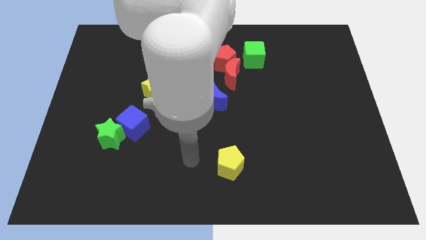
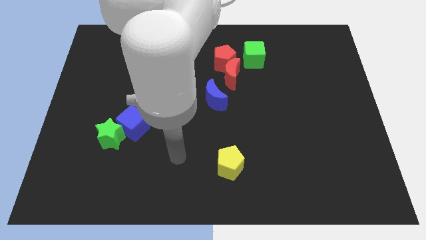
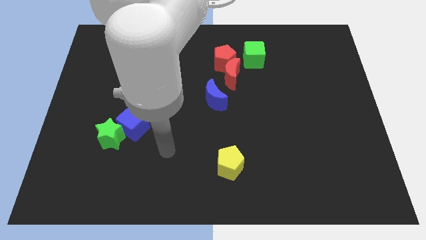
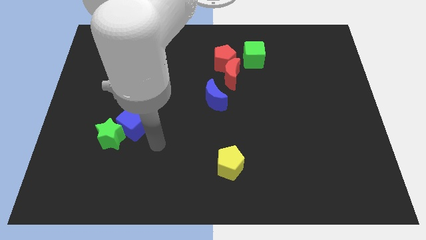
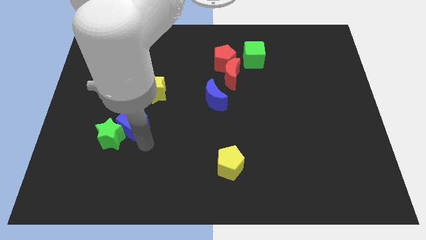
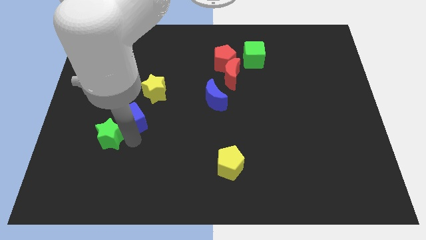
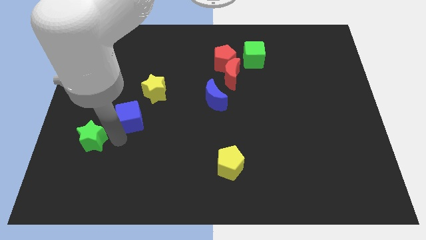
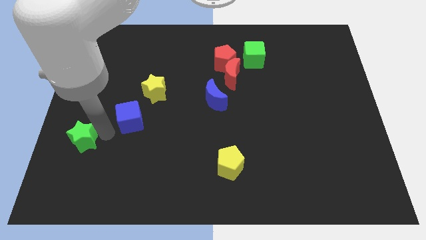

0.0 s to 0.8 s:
pull the blue cube apart from the green star

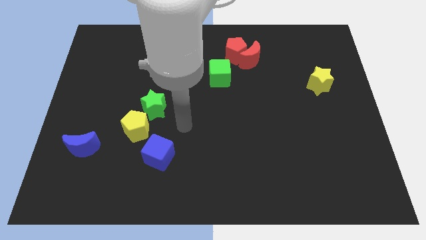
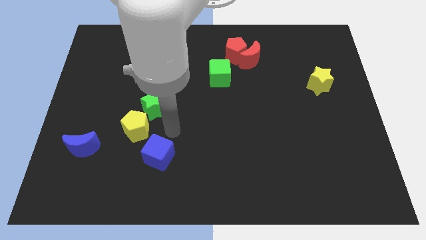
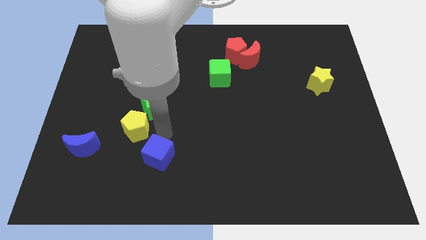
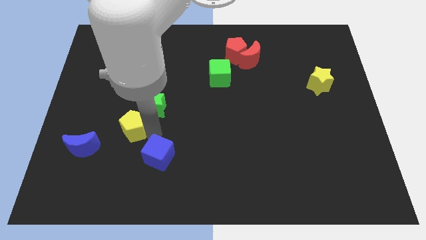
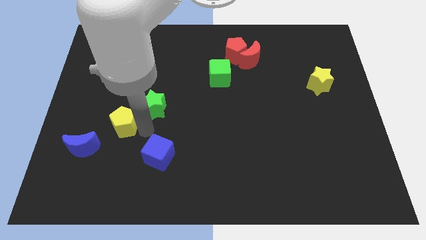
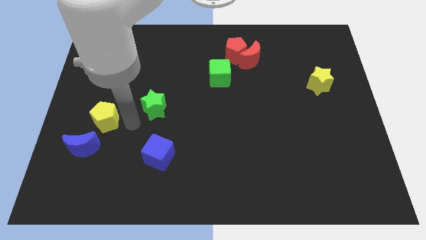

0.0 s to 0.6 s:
move the green star away from the yellow pentagon

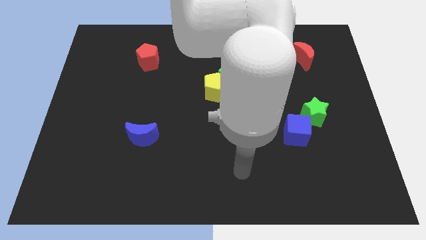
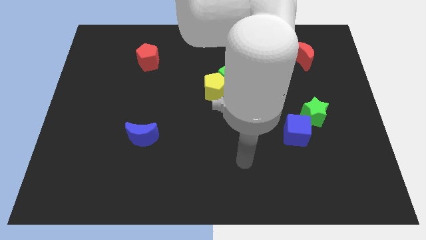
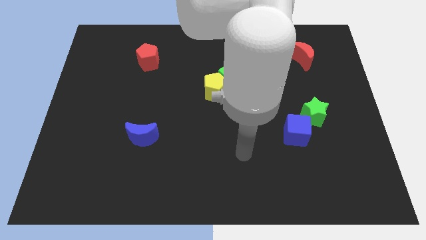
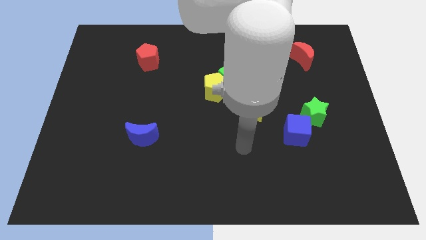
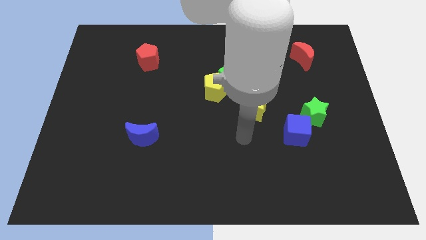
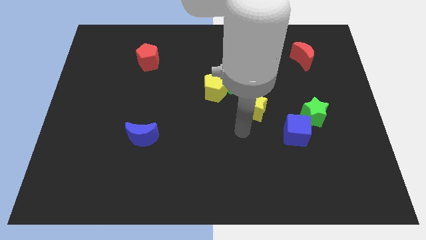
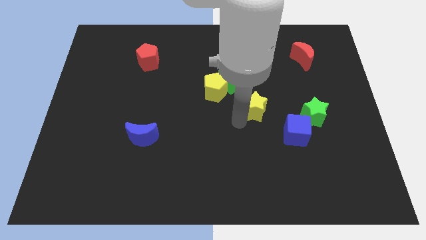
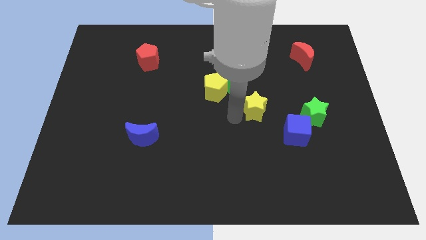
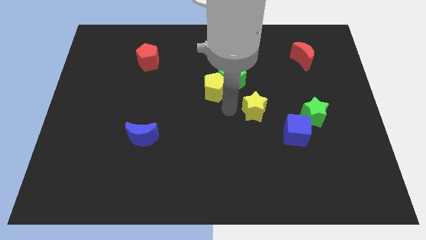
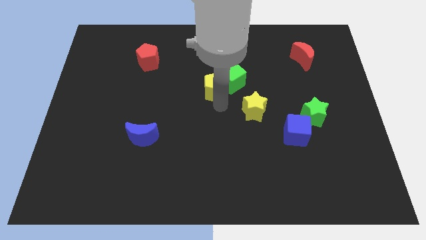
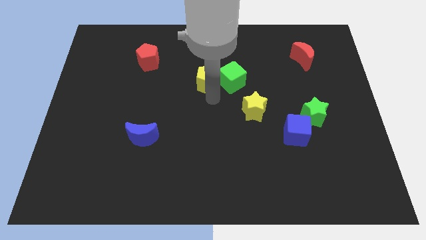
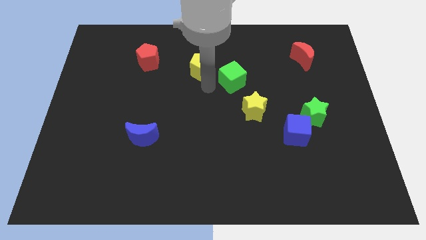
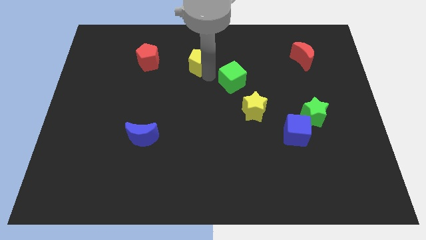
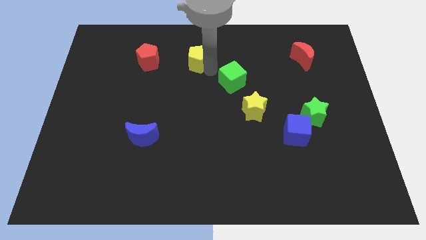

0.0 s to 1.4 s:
move the green cube away from the yellow pentagon

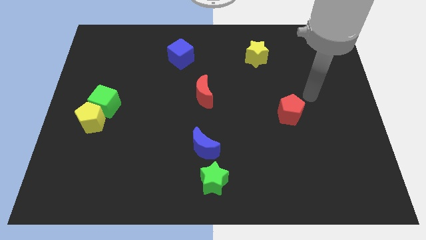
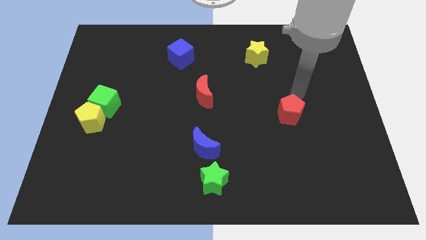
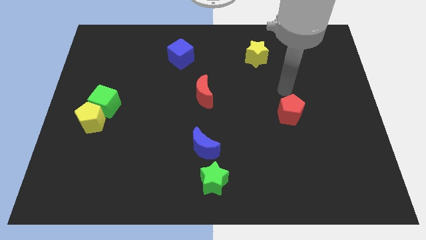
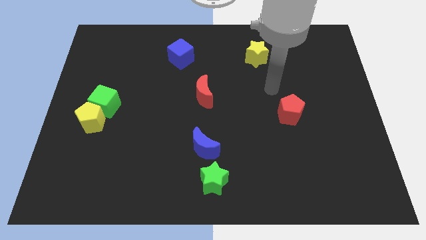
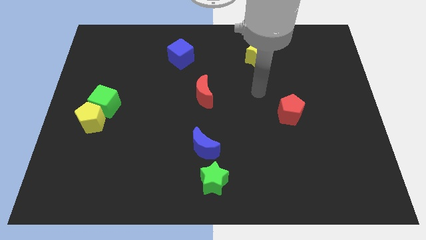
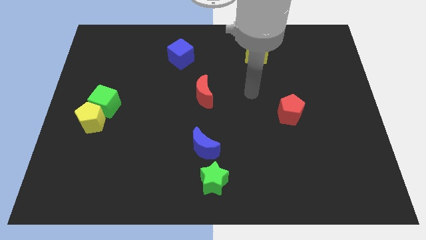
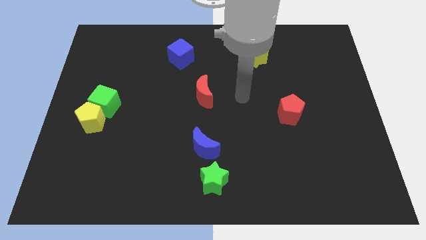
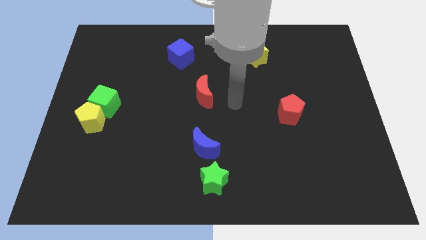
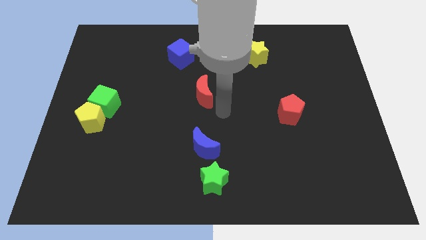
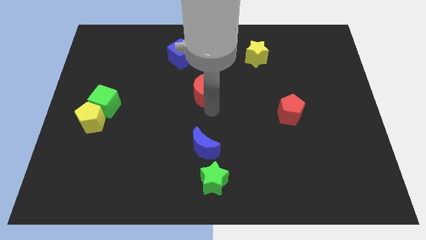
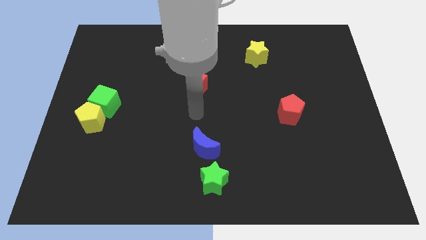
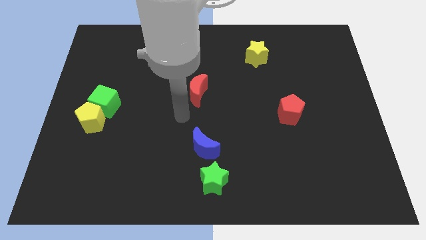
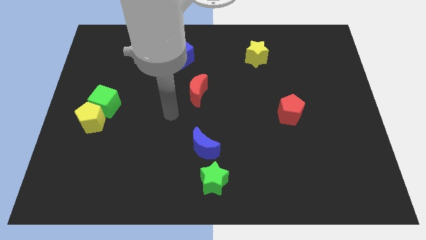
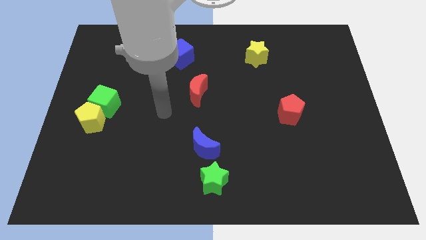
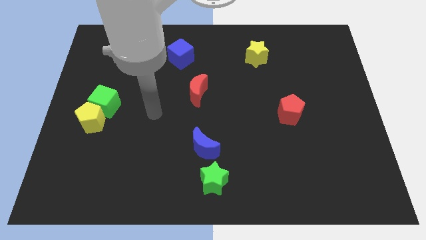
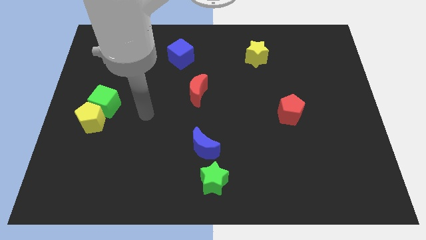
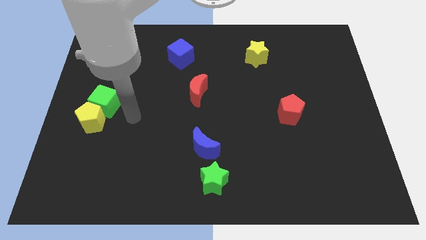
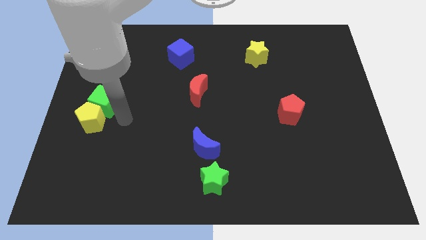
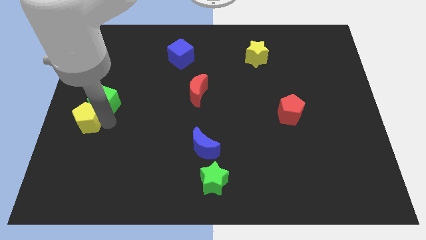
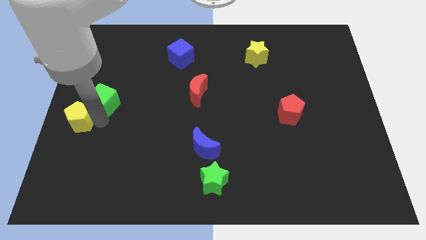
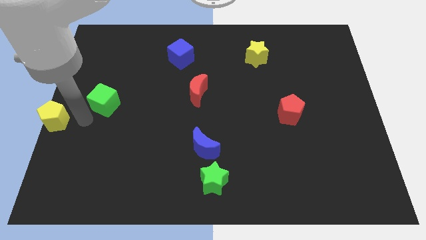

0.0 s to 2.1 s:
separate the green cube from the yellow pentagon

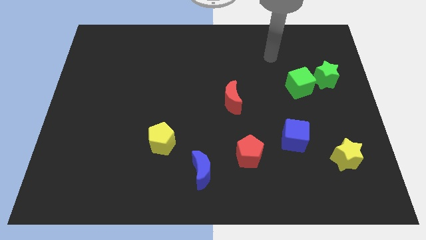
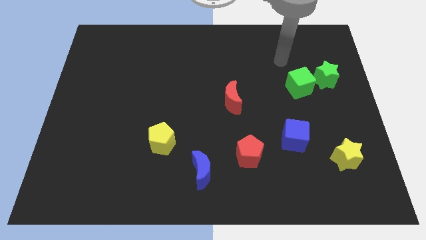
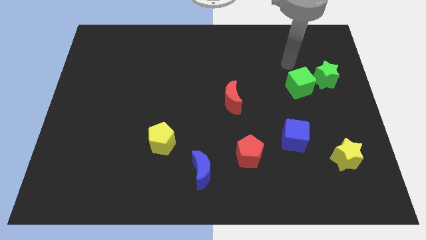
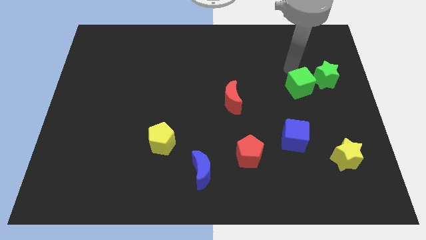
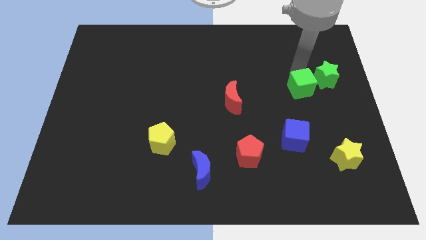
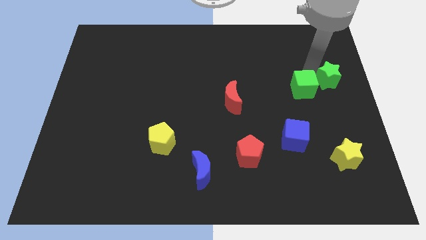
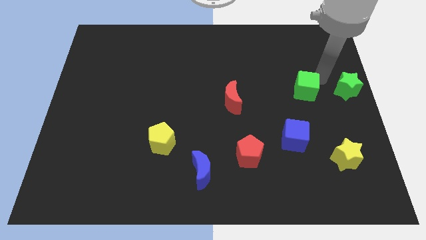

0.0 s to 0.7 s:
separate the green cube from the green star

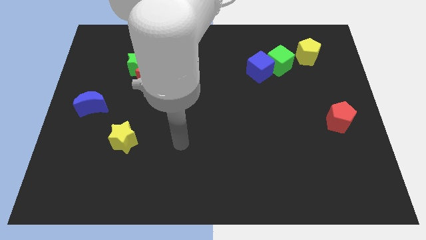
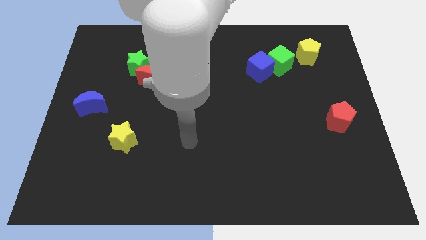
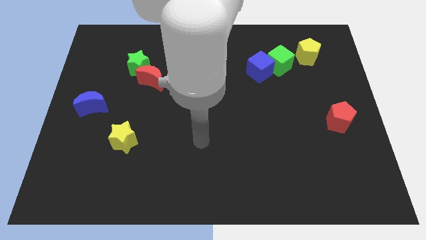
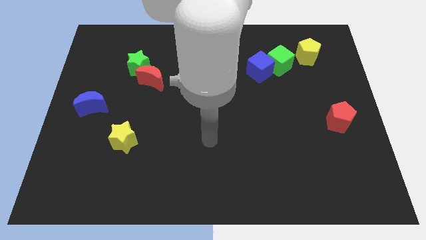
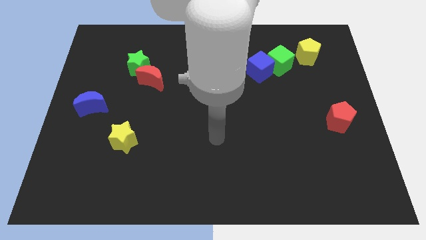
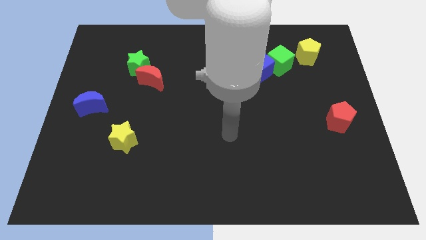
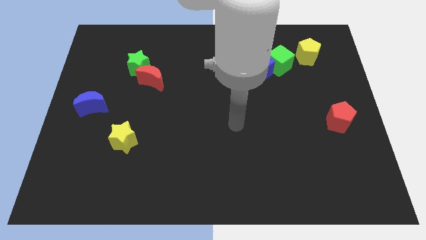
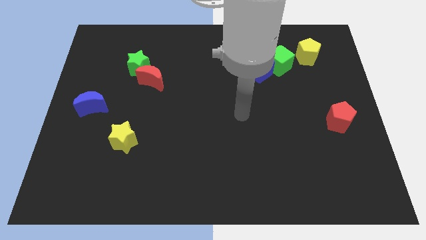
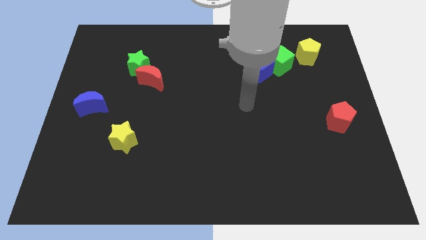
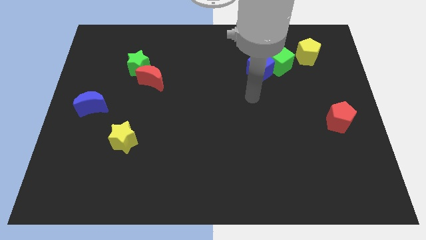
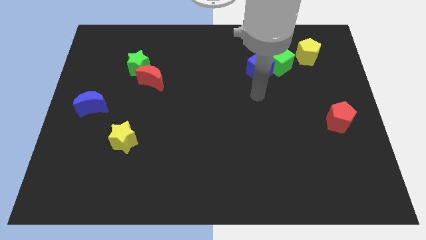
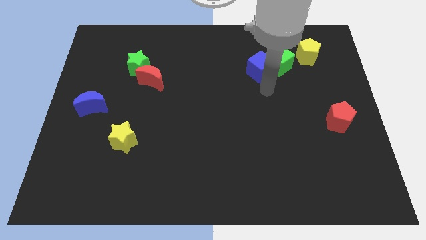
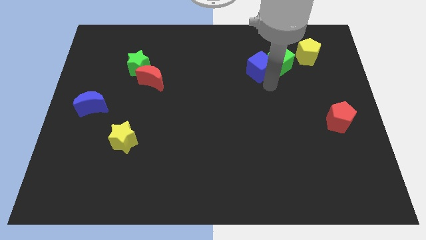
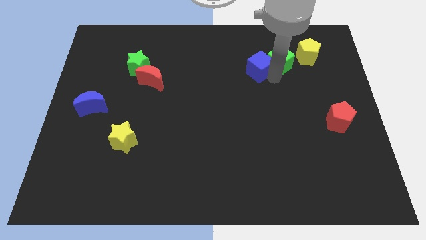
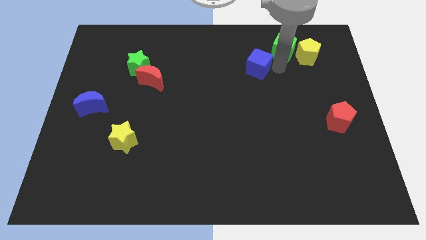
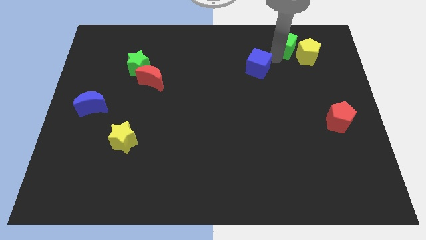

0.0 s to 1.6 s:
pull the blue cube apart from the green cube

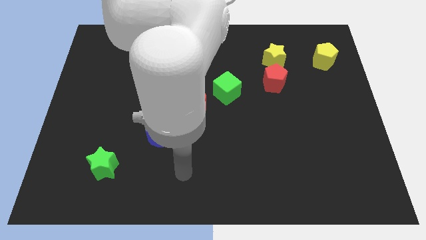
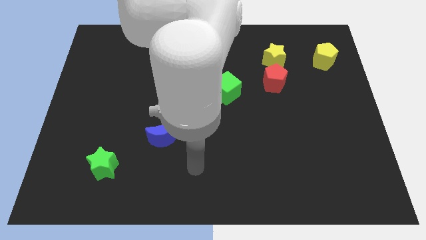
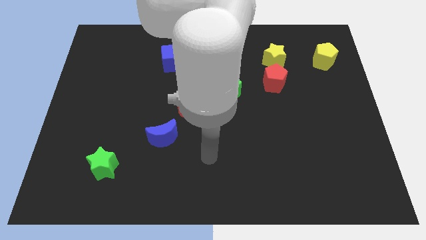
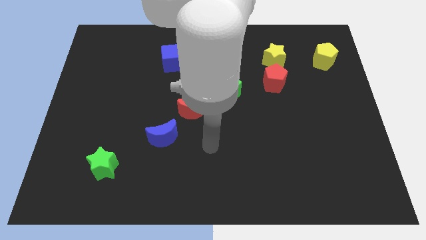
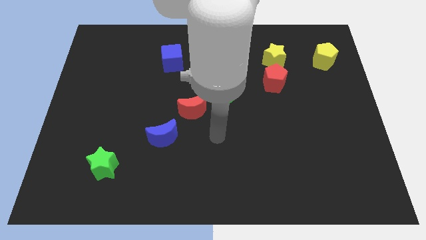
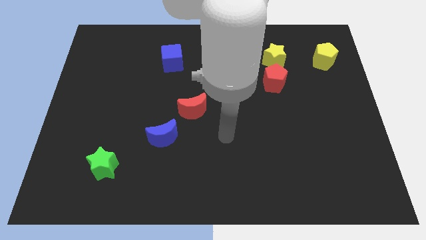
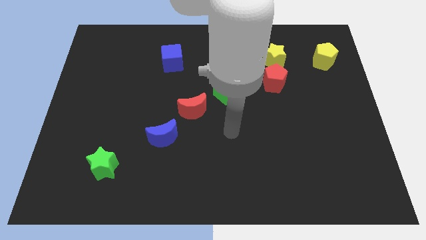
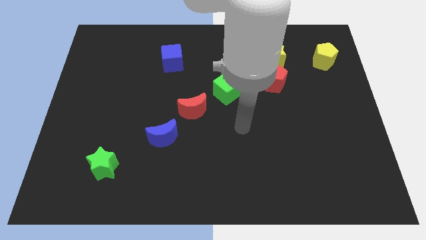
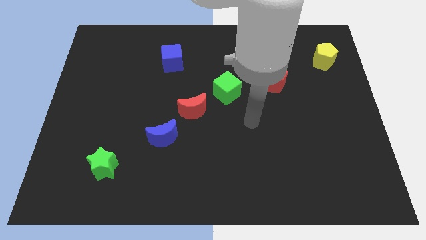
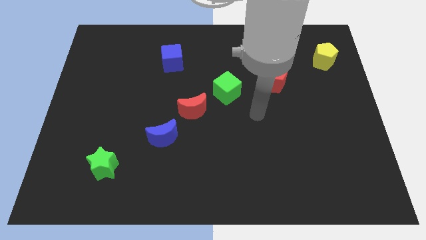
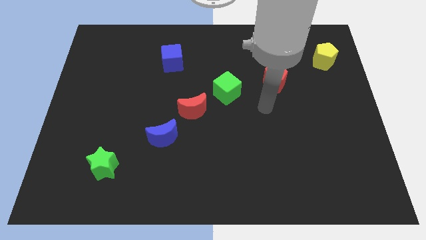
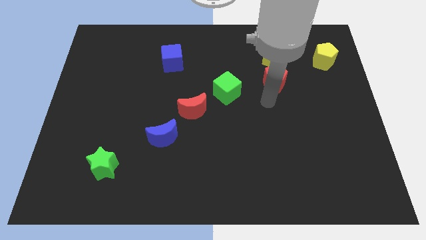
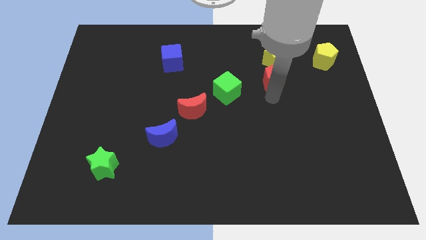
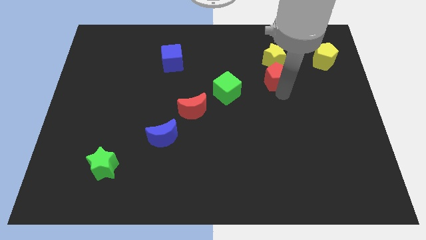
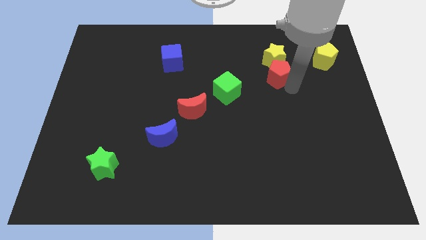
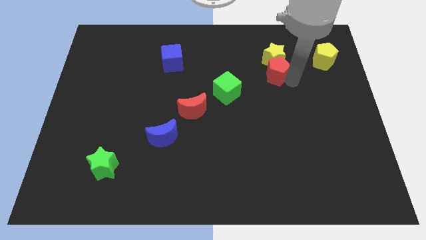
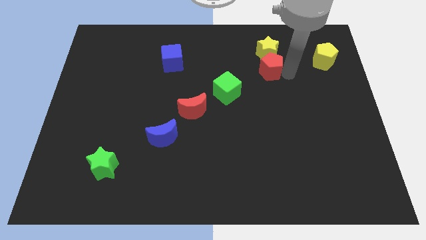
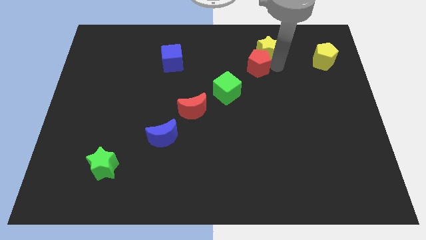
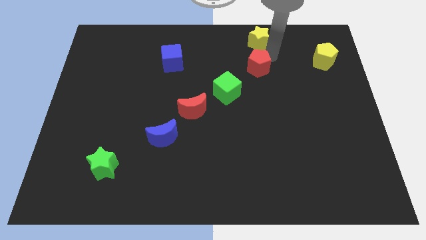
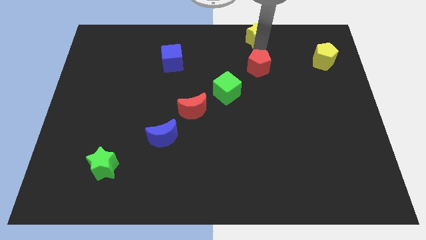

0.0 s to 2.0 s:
separate the red pentagon from the yellow star
